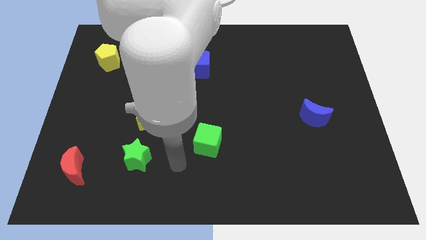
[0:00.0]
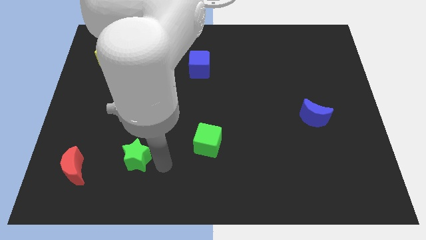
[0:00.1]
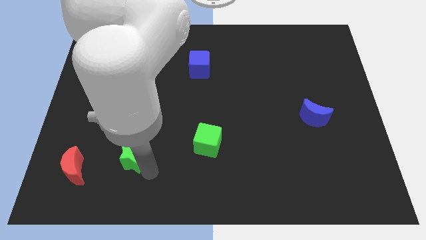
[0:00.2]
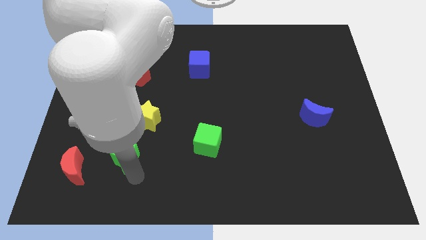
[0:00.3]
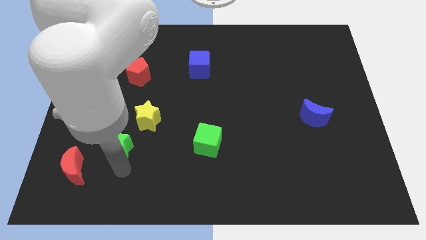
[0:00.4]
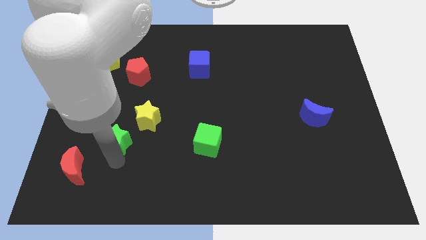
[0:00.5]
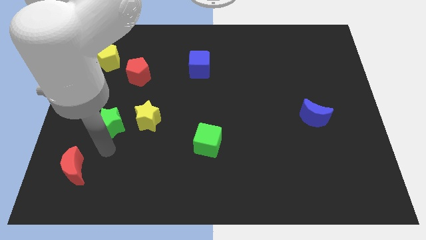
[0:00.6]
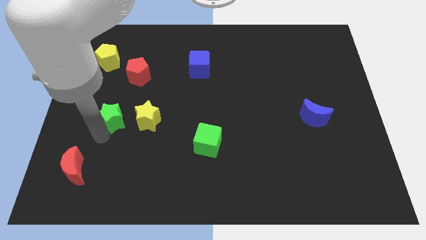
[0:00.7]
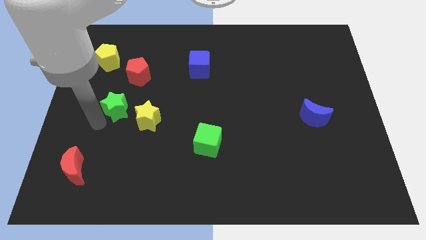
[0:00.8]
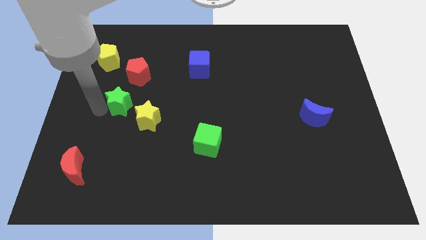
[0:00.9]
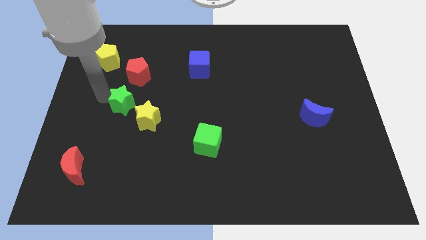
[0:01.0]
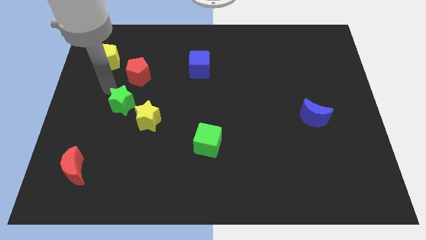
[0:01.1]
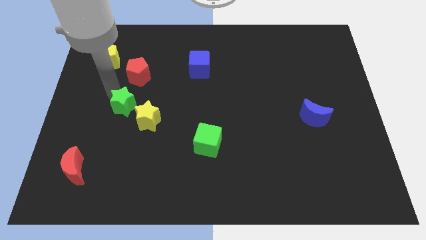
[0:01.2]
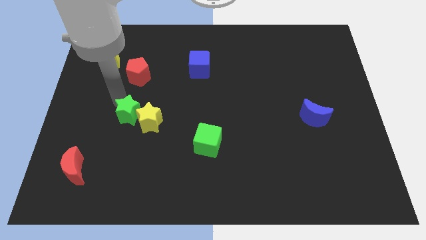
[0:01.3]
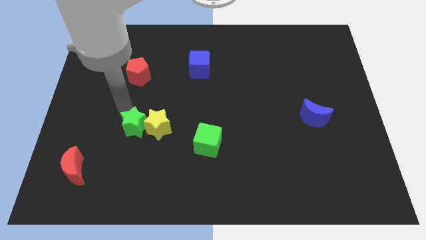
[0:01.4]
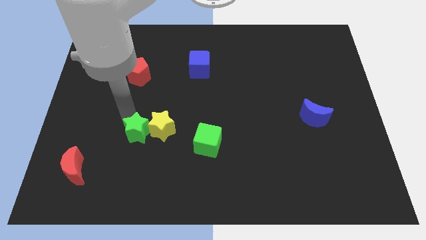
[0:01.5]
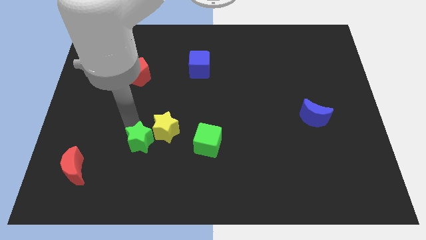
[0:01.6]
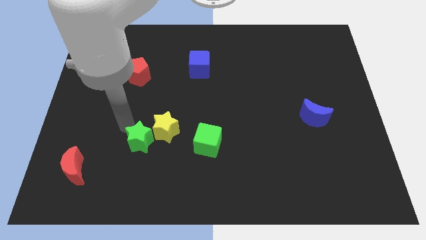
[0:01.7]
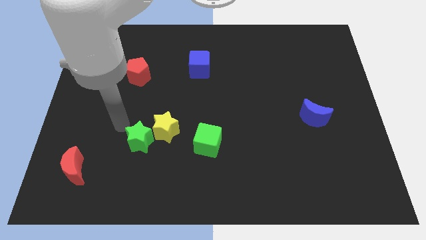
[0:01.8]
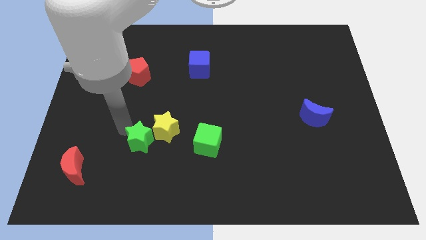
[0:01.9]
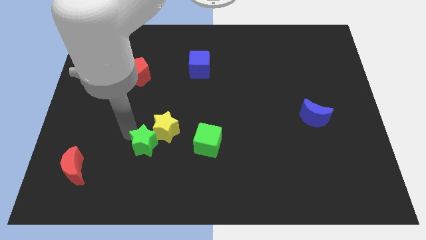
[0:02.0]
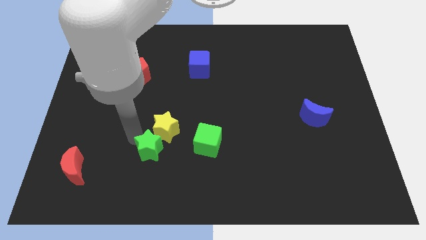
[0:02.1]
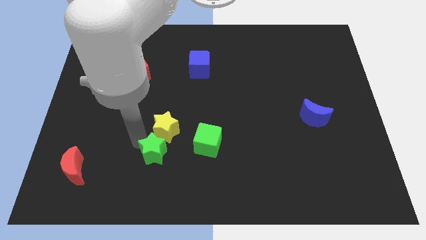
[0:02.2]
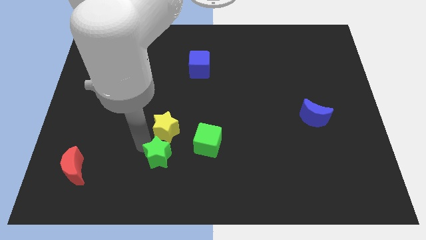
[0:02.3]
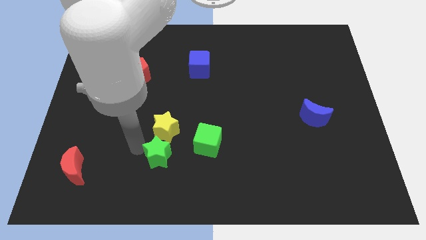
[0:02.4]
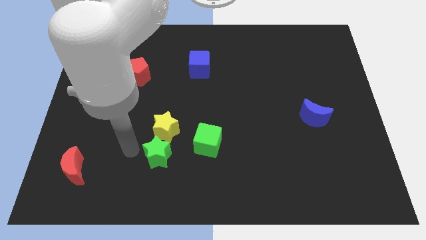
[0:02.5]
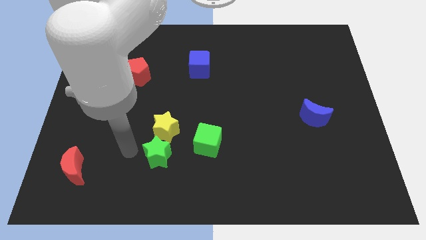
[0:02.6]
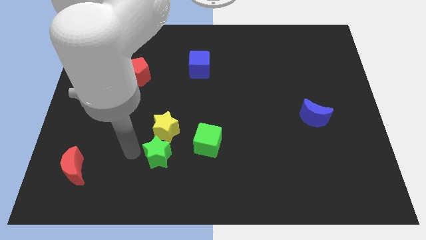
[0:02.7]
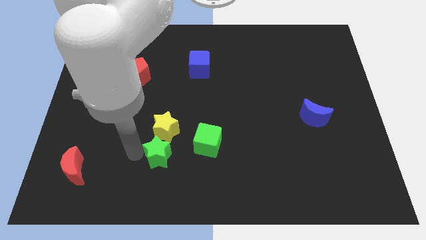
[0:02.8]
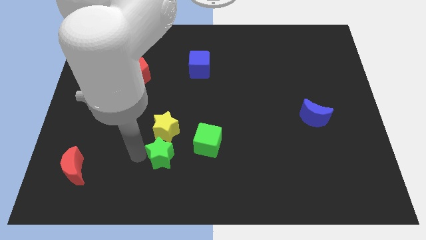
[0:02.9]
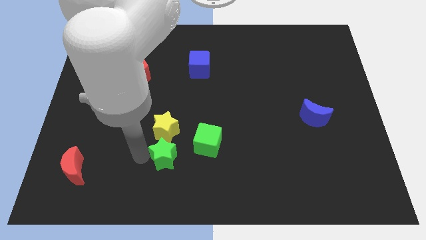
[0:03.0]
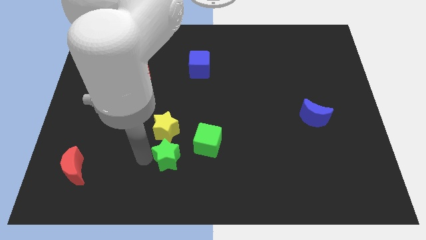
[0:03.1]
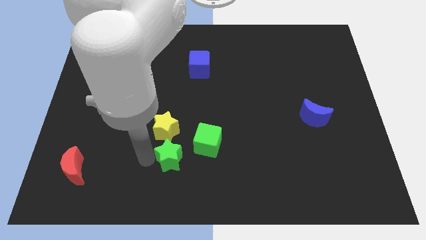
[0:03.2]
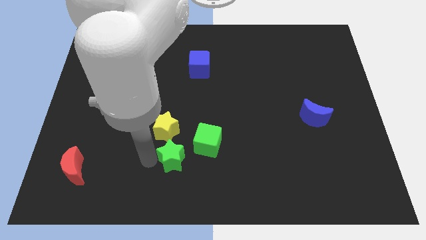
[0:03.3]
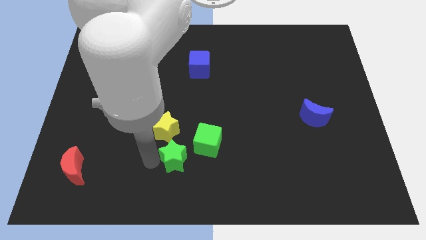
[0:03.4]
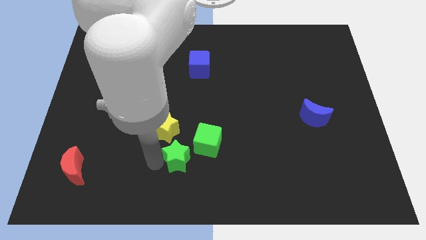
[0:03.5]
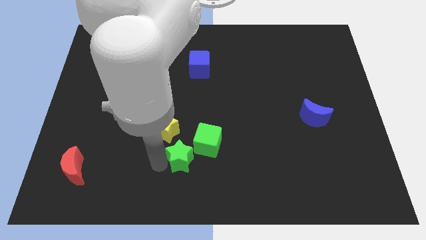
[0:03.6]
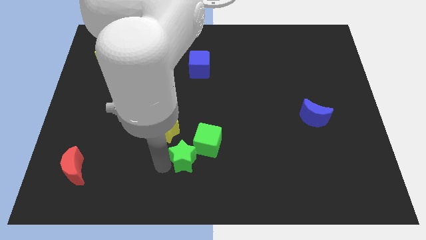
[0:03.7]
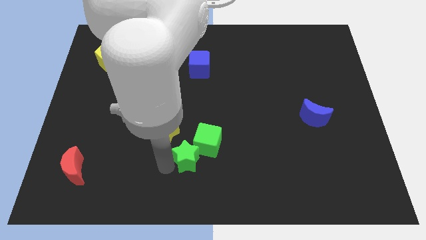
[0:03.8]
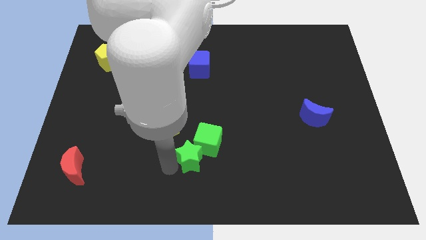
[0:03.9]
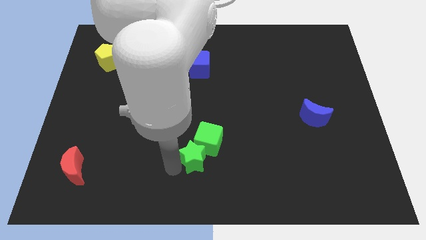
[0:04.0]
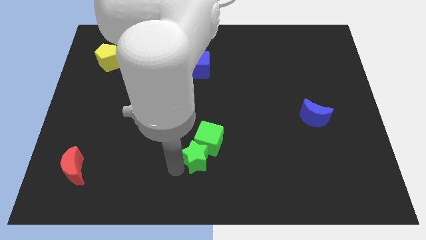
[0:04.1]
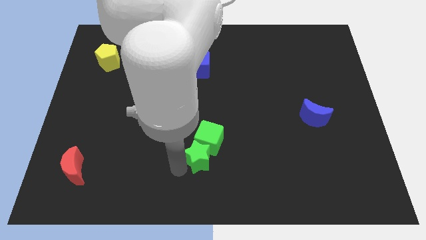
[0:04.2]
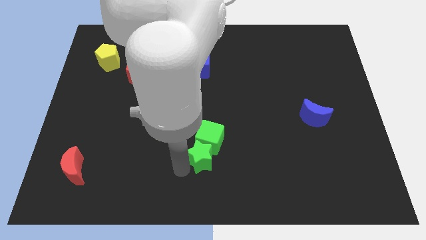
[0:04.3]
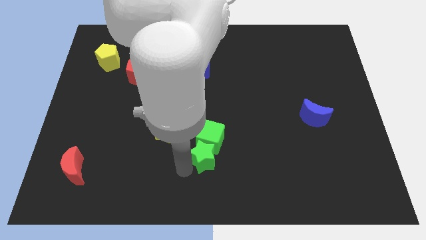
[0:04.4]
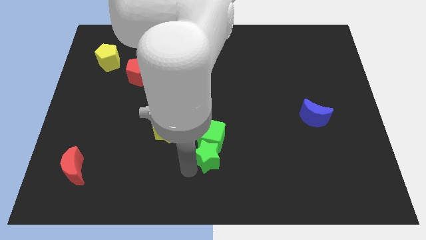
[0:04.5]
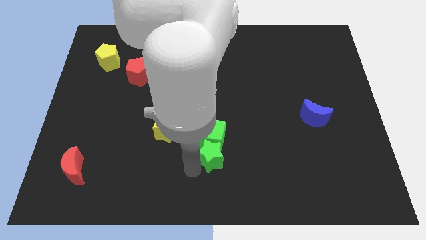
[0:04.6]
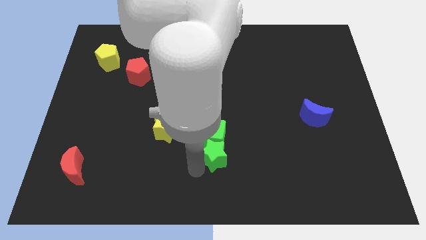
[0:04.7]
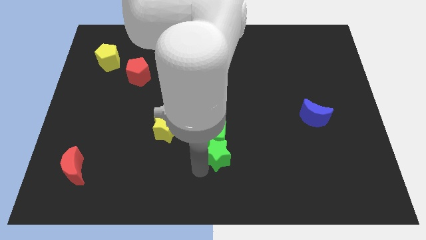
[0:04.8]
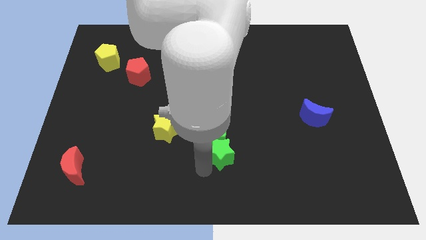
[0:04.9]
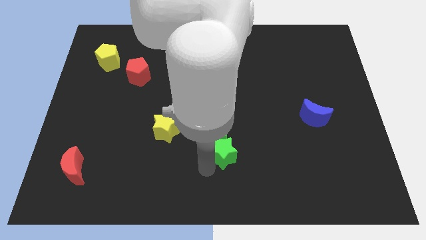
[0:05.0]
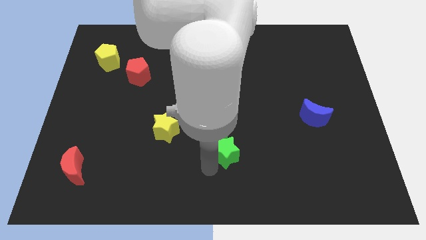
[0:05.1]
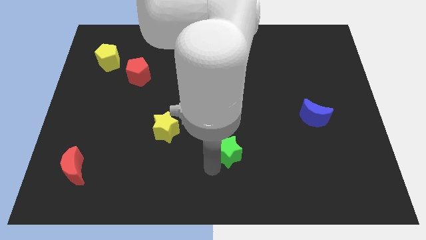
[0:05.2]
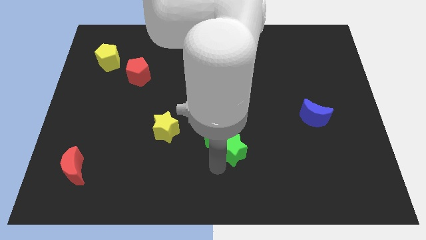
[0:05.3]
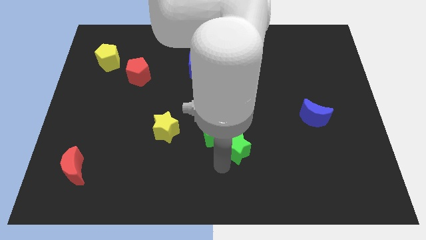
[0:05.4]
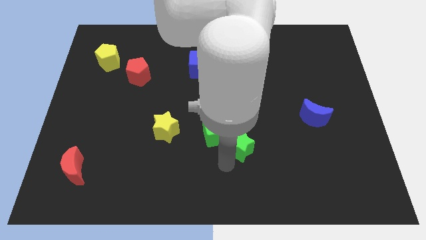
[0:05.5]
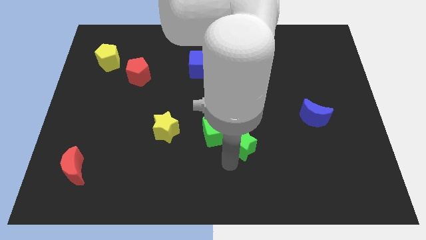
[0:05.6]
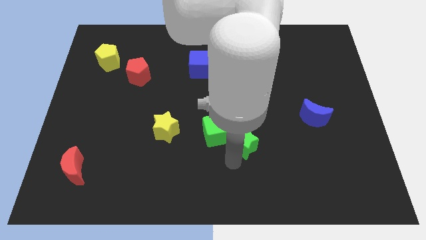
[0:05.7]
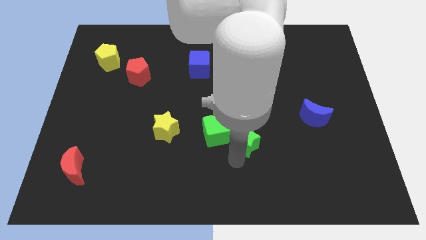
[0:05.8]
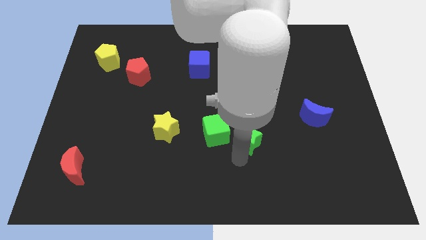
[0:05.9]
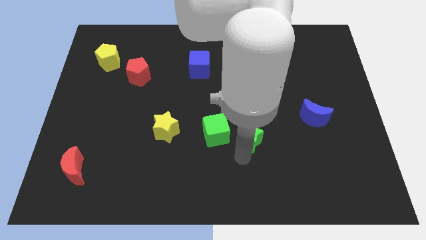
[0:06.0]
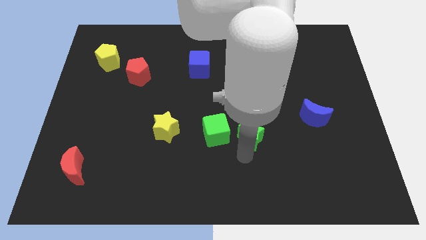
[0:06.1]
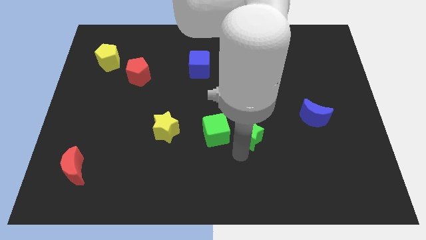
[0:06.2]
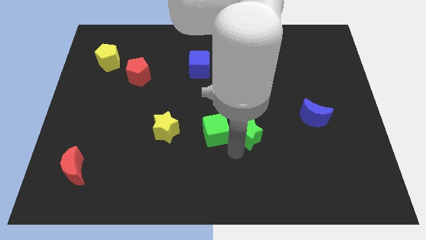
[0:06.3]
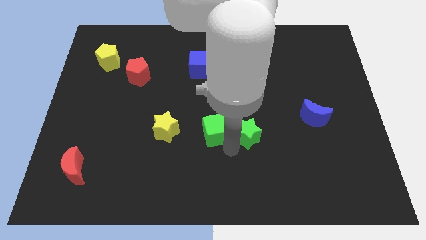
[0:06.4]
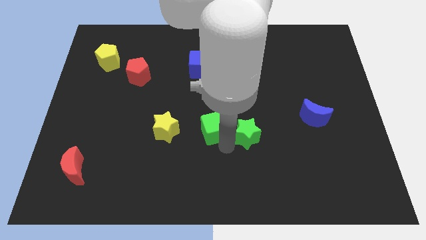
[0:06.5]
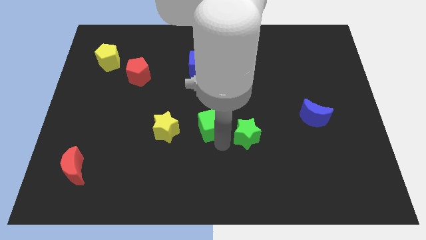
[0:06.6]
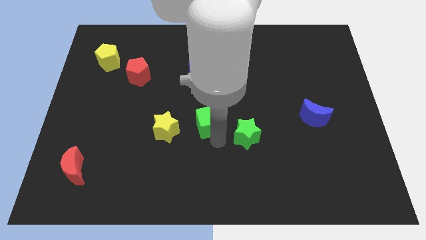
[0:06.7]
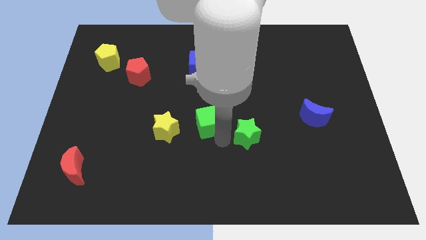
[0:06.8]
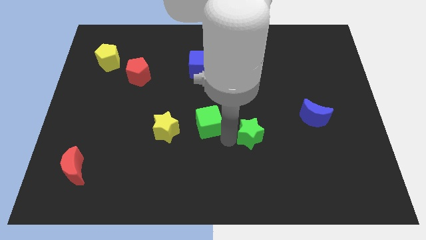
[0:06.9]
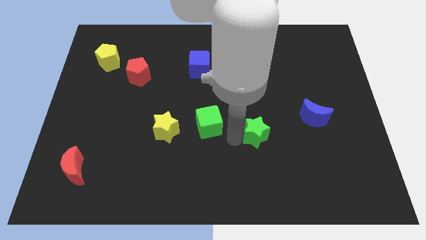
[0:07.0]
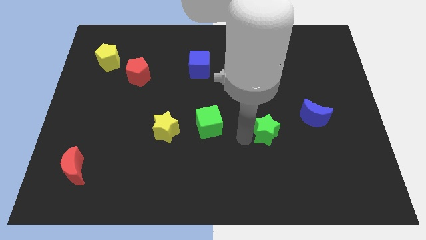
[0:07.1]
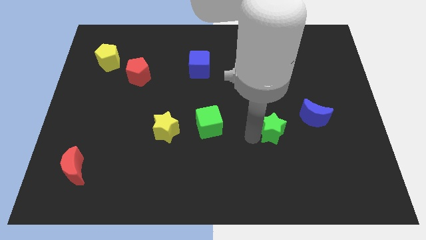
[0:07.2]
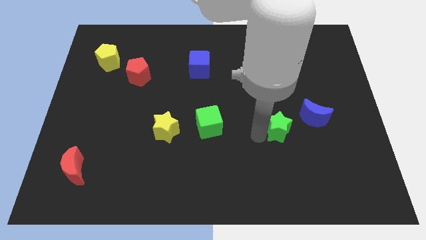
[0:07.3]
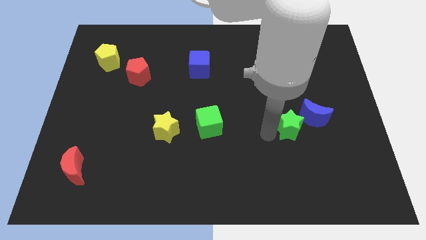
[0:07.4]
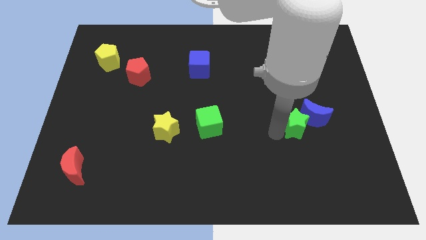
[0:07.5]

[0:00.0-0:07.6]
push the green star towards the blue moon
